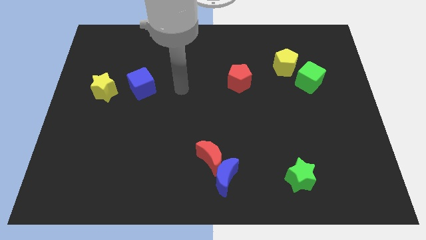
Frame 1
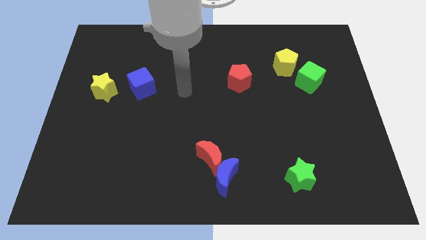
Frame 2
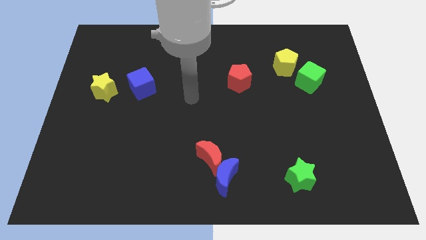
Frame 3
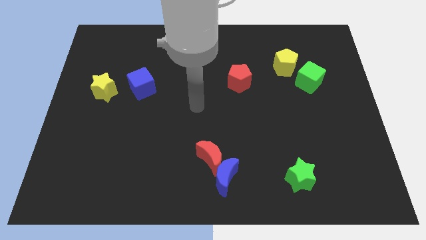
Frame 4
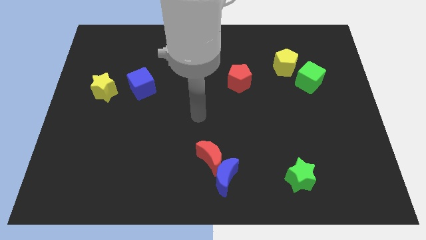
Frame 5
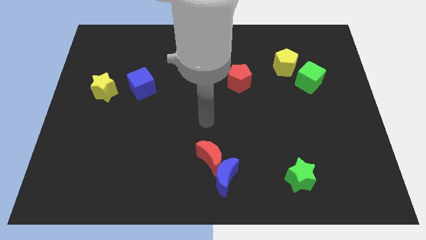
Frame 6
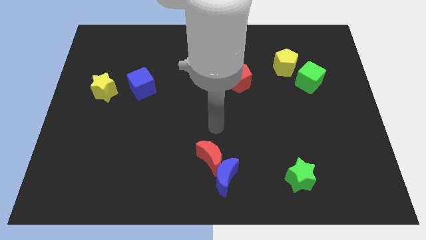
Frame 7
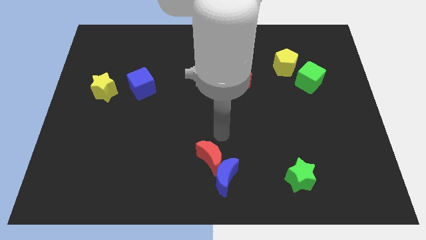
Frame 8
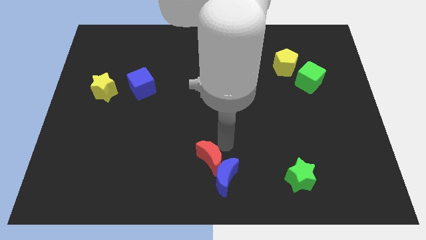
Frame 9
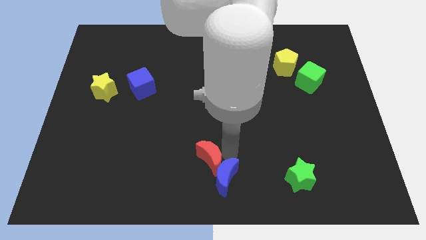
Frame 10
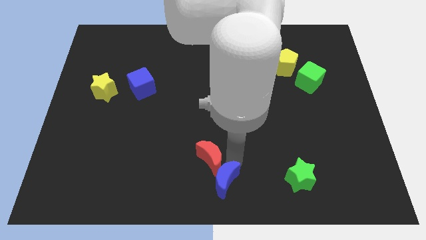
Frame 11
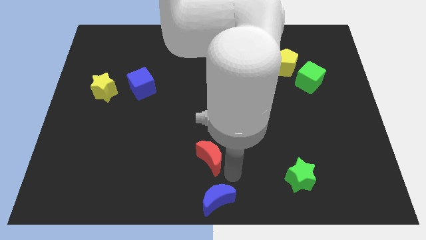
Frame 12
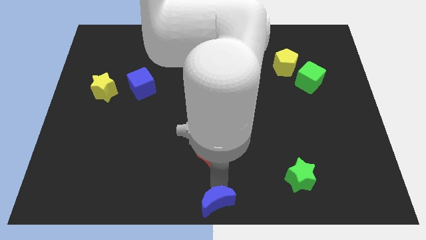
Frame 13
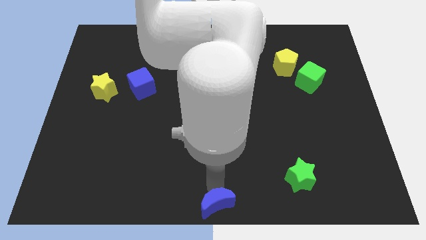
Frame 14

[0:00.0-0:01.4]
move the red moon away from the blue moon

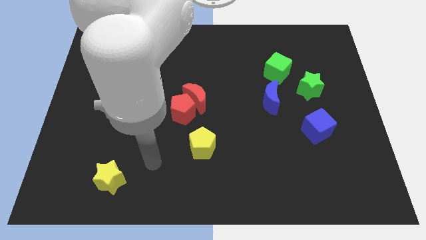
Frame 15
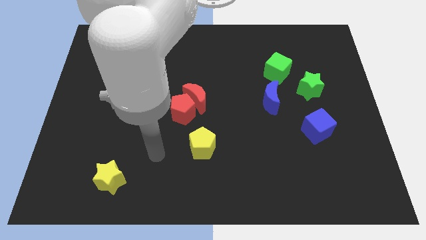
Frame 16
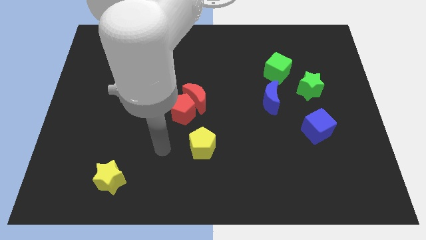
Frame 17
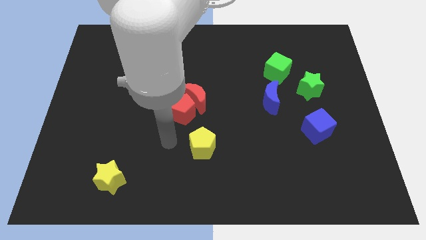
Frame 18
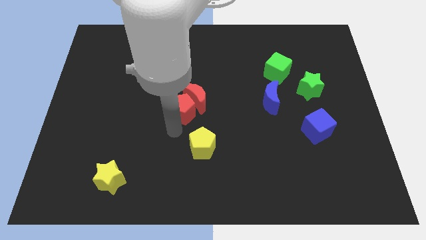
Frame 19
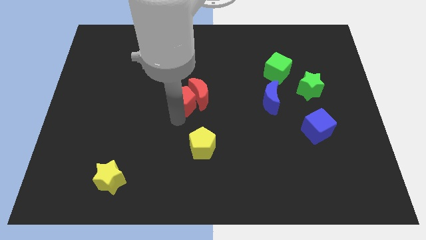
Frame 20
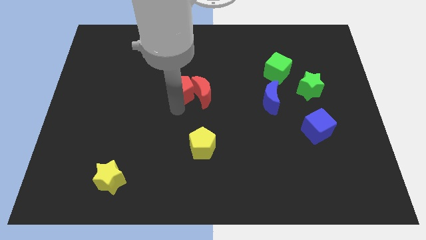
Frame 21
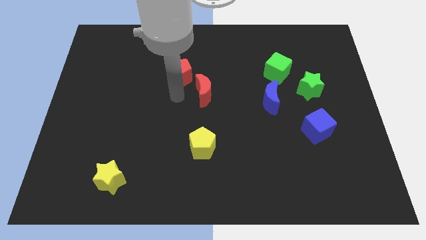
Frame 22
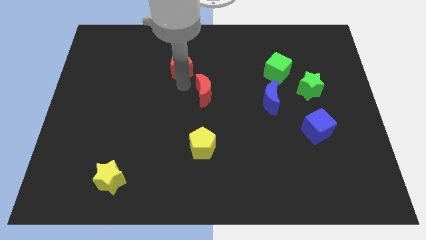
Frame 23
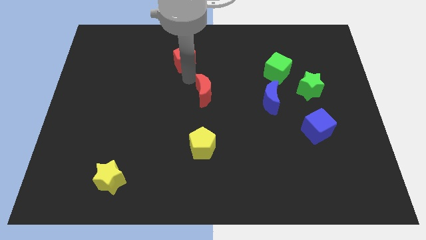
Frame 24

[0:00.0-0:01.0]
separate the red moon from the red pentagon

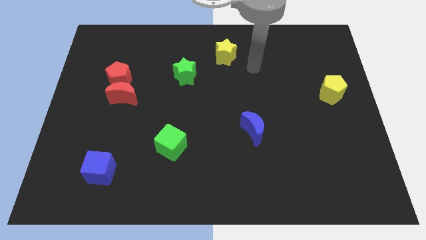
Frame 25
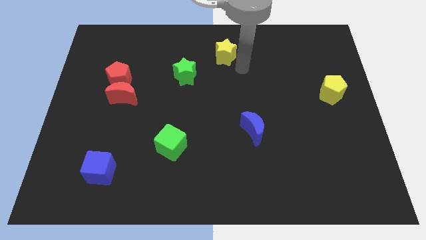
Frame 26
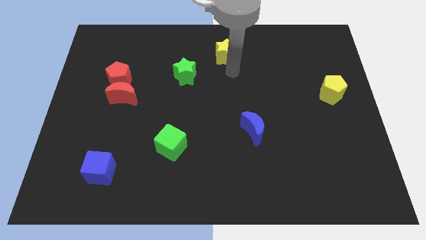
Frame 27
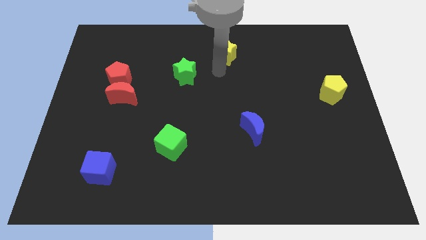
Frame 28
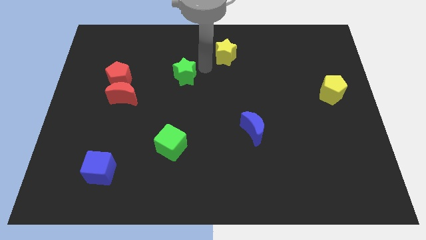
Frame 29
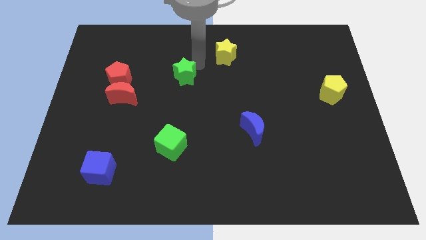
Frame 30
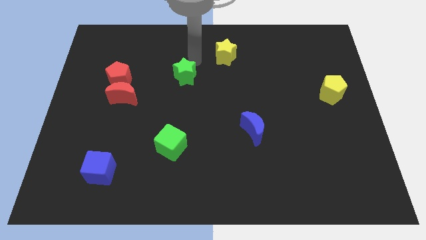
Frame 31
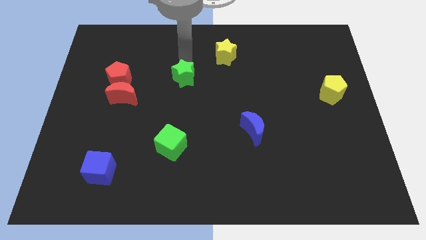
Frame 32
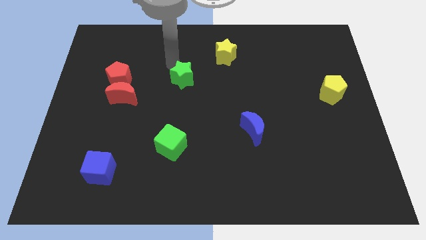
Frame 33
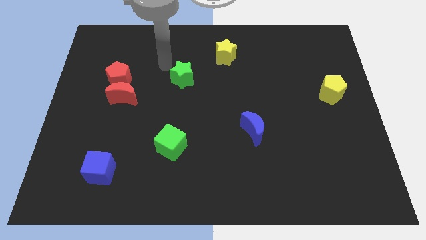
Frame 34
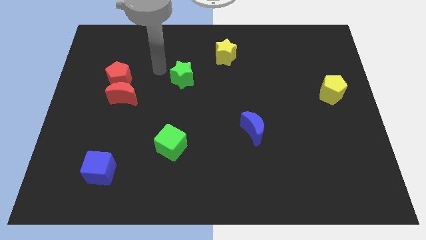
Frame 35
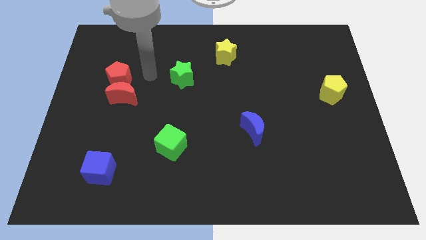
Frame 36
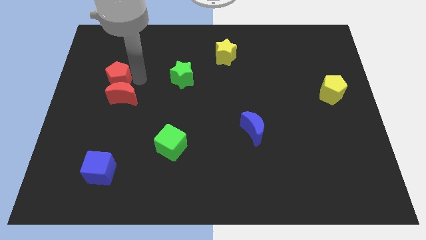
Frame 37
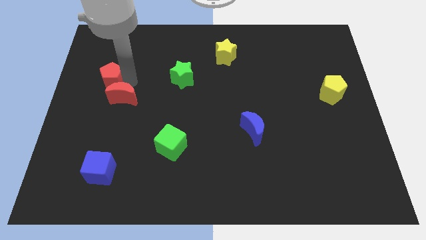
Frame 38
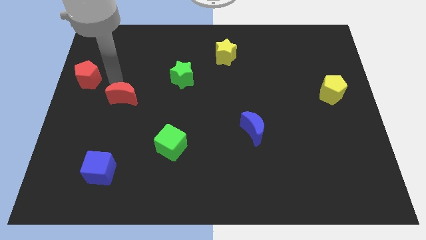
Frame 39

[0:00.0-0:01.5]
move the red moon away from the red pentagon

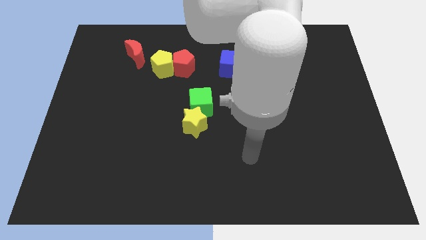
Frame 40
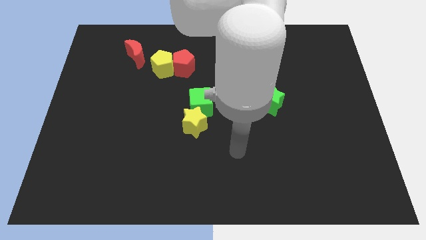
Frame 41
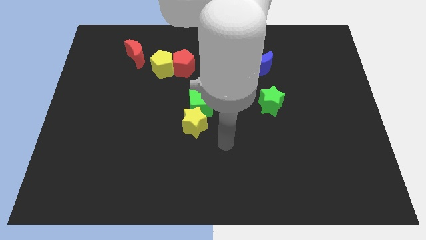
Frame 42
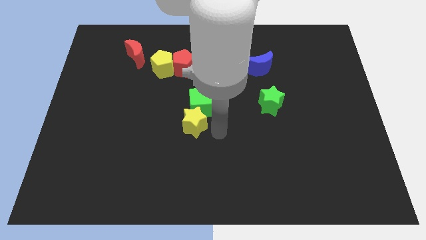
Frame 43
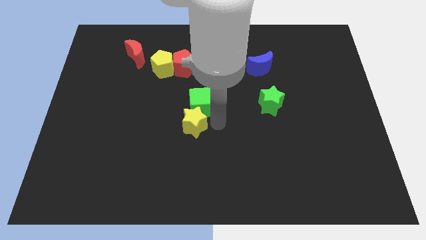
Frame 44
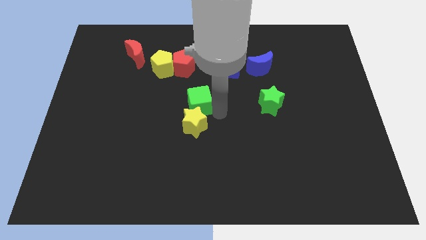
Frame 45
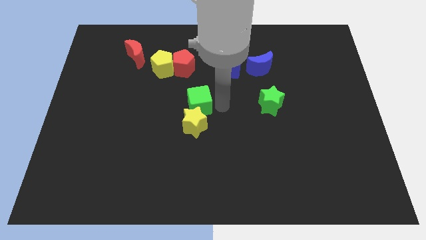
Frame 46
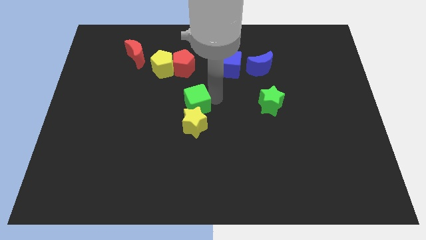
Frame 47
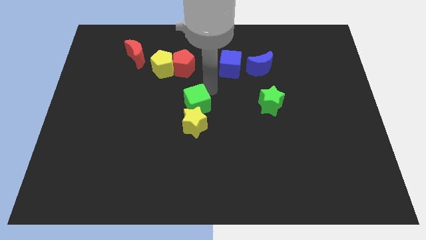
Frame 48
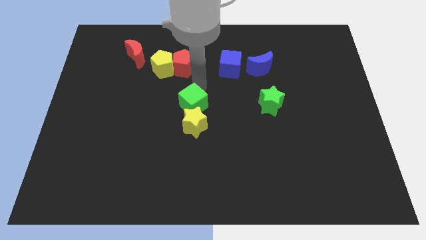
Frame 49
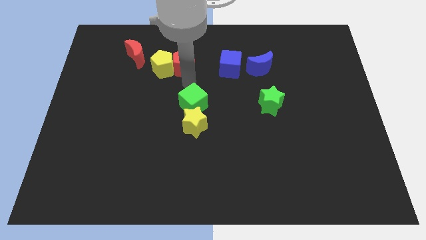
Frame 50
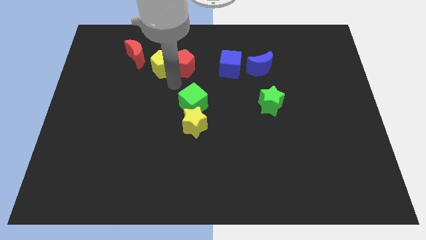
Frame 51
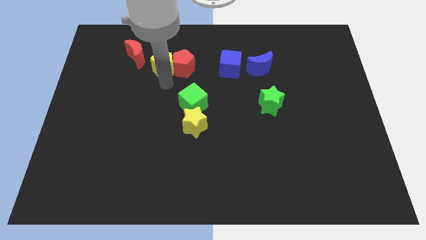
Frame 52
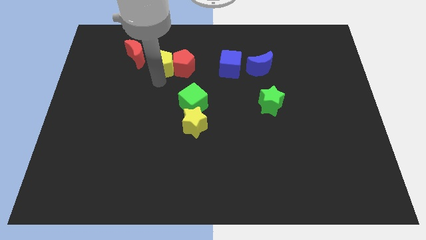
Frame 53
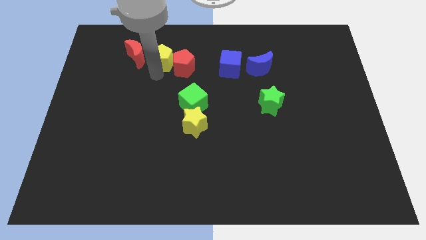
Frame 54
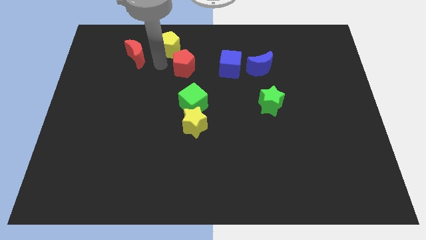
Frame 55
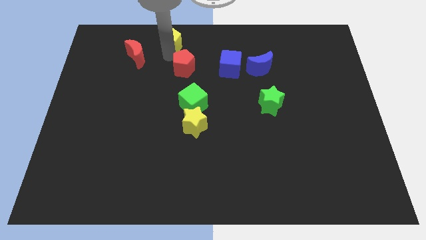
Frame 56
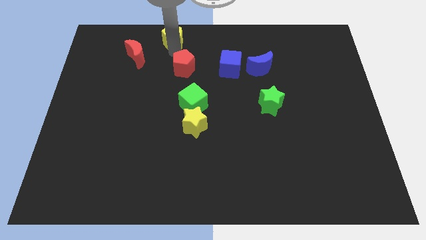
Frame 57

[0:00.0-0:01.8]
pull the red pentagon apart from the yellow pentagon

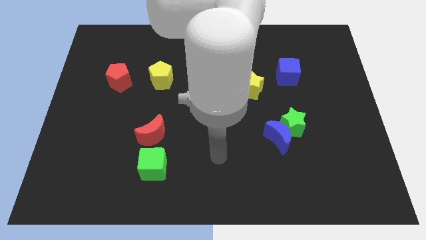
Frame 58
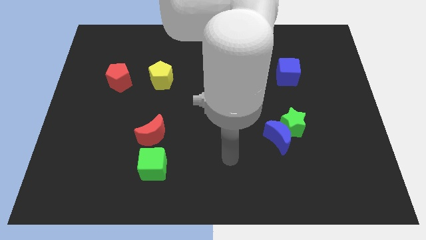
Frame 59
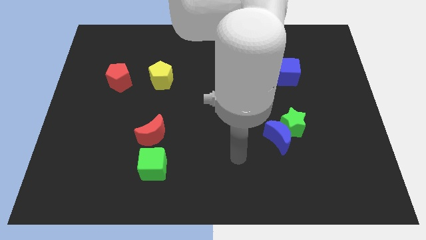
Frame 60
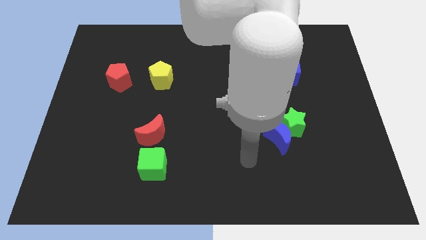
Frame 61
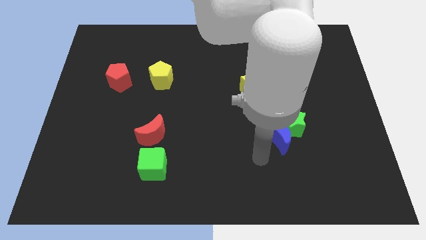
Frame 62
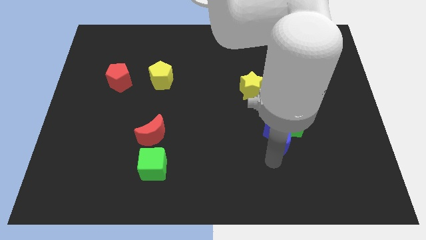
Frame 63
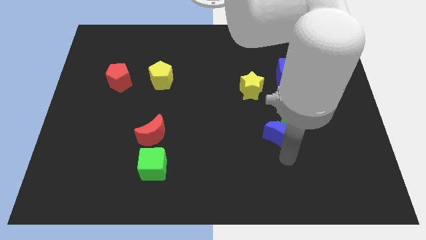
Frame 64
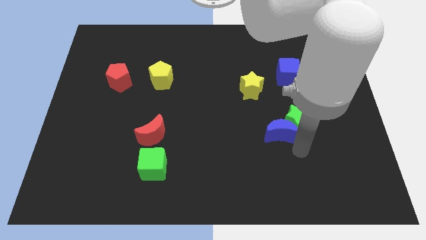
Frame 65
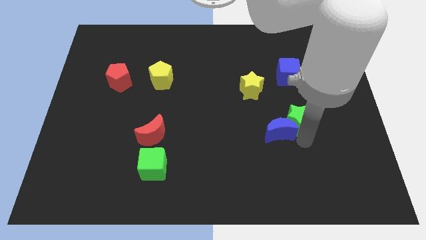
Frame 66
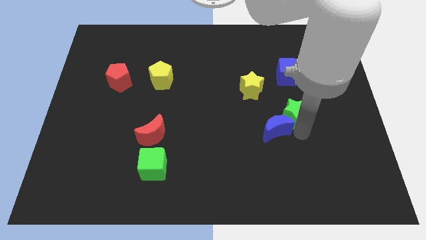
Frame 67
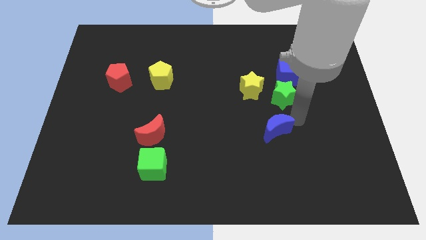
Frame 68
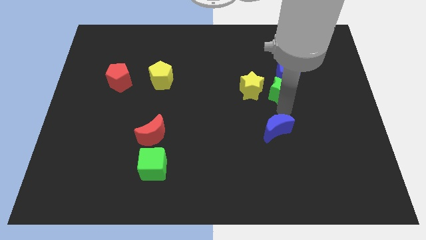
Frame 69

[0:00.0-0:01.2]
move the blue moon away from the green star

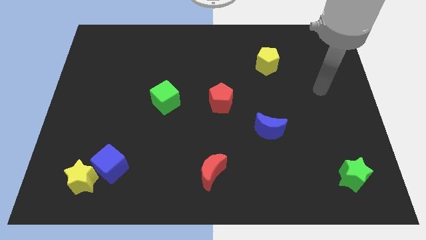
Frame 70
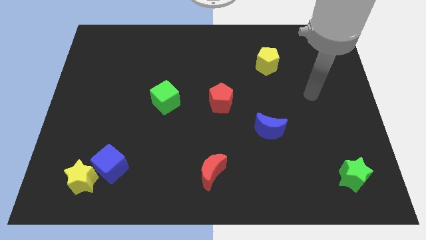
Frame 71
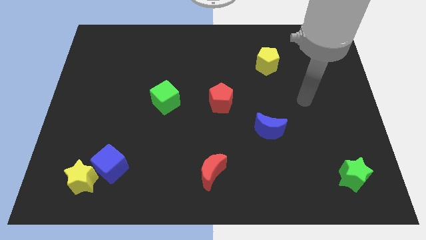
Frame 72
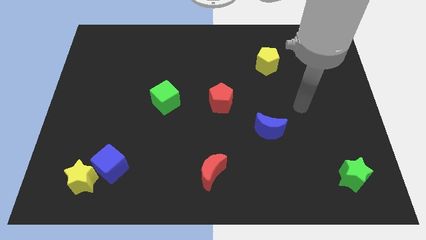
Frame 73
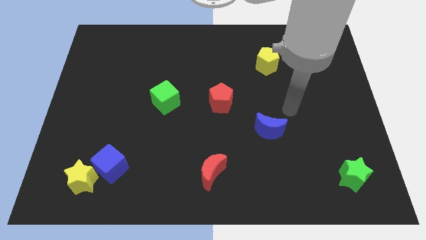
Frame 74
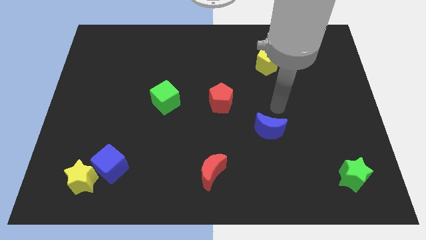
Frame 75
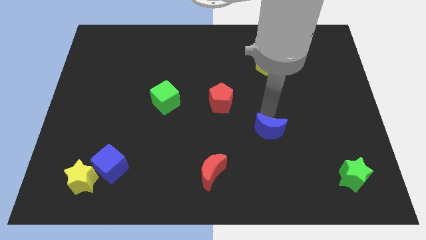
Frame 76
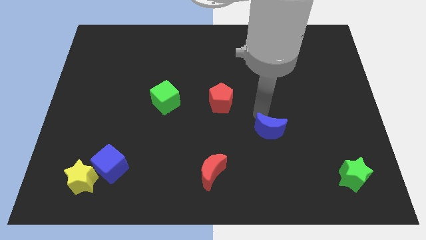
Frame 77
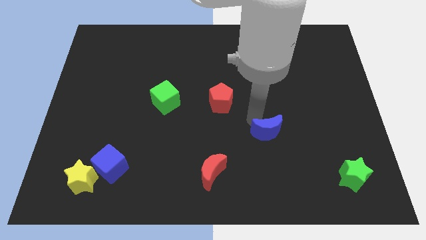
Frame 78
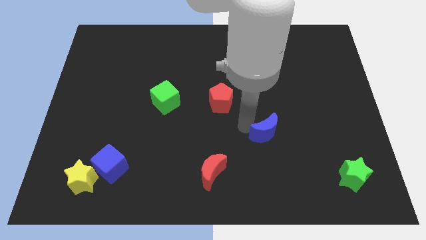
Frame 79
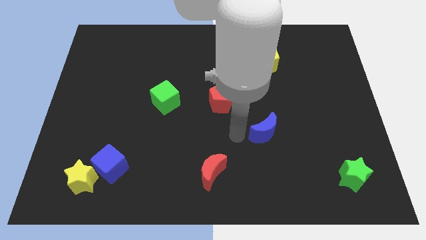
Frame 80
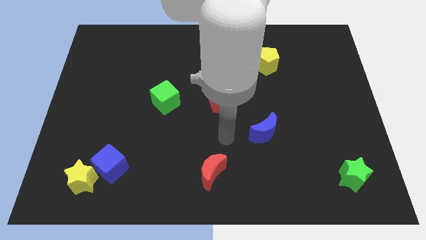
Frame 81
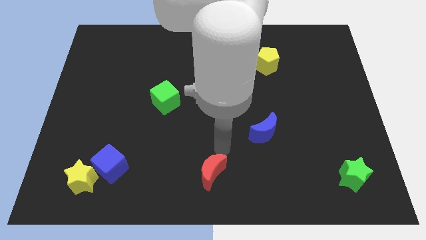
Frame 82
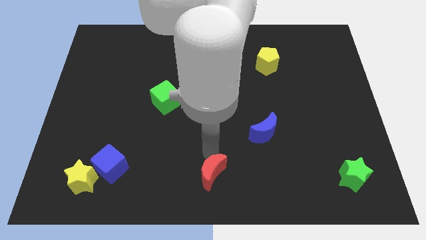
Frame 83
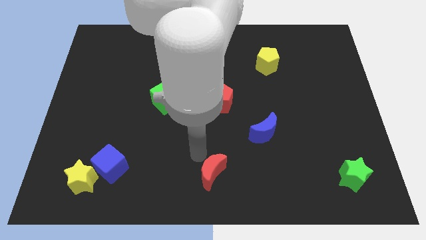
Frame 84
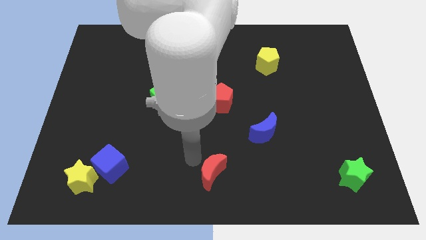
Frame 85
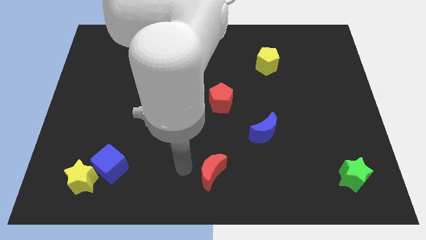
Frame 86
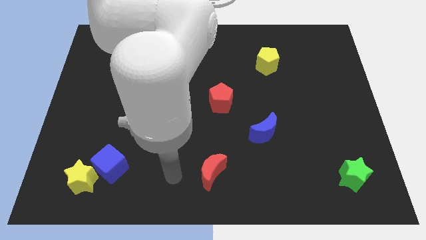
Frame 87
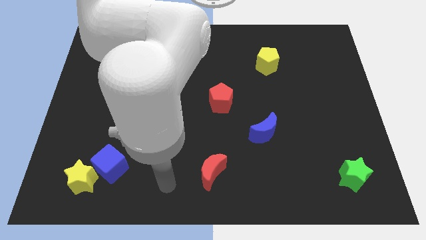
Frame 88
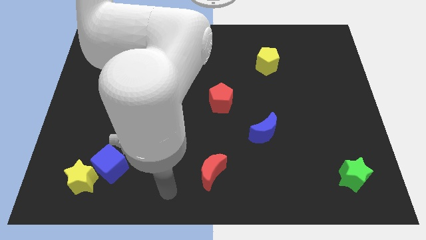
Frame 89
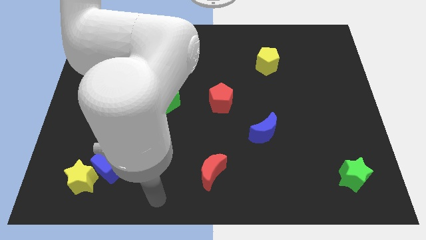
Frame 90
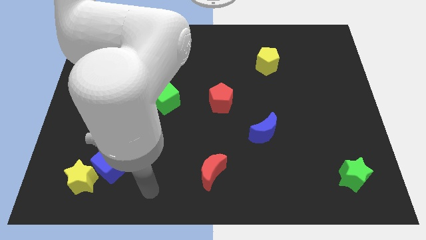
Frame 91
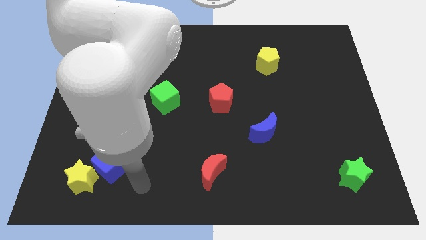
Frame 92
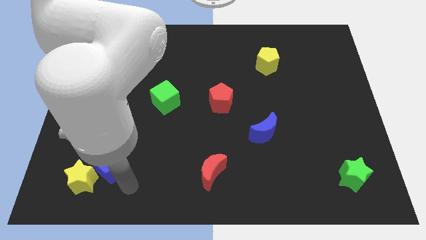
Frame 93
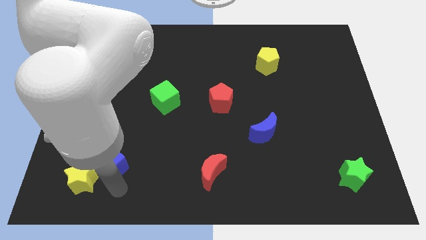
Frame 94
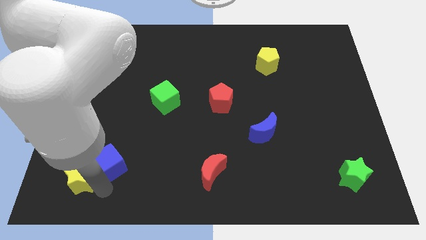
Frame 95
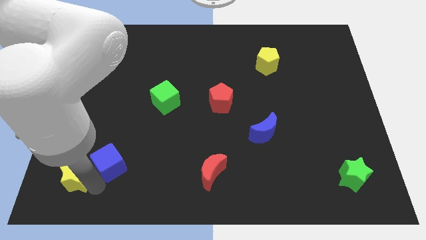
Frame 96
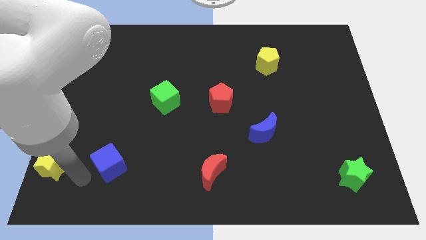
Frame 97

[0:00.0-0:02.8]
separate the blue cube from the yellow star
